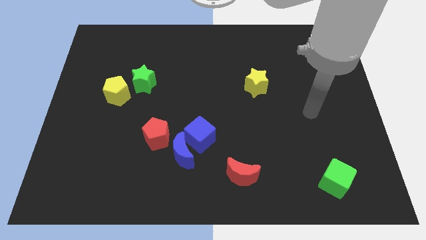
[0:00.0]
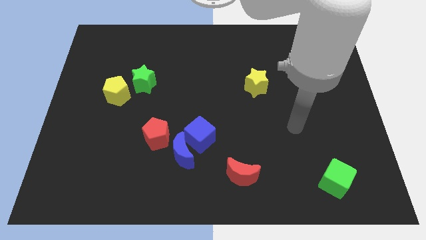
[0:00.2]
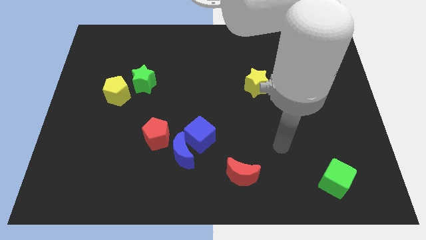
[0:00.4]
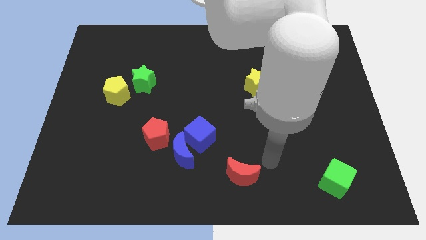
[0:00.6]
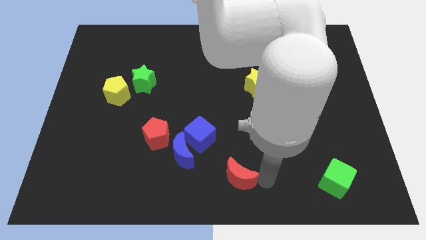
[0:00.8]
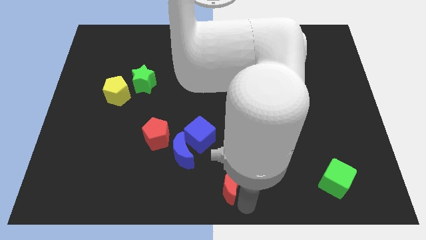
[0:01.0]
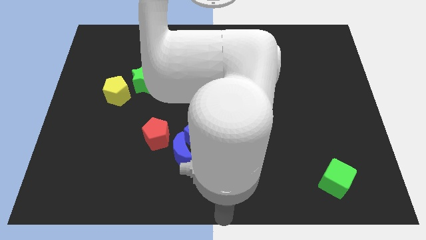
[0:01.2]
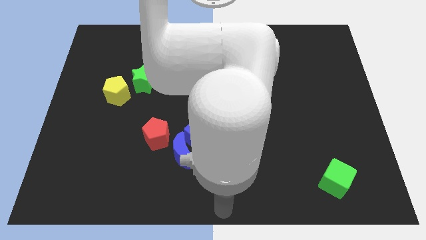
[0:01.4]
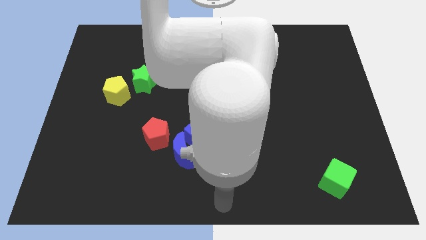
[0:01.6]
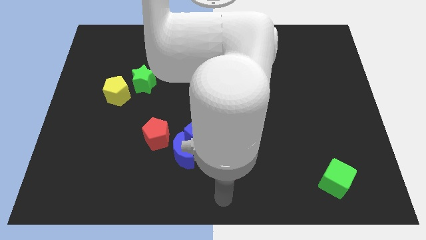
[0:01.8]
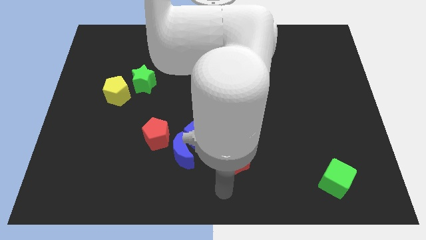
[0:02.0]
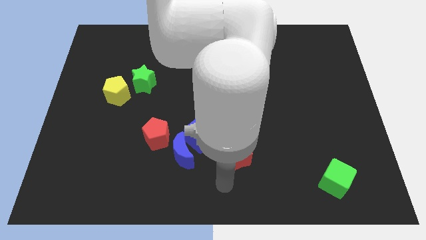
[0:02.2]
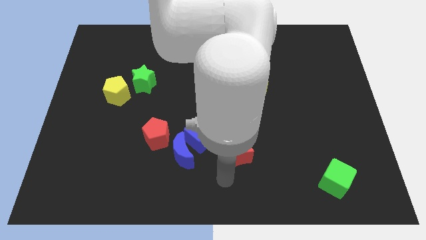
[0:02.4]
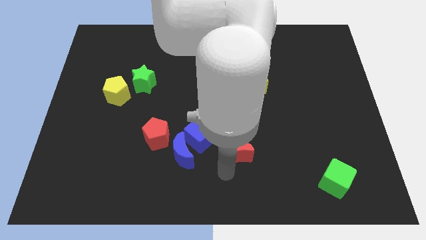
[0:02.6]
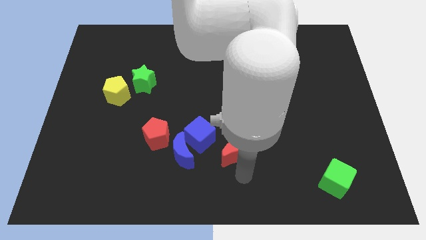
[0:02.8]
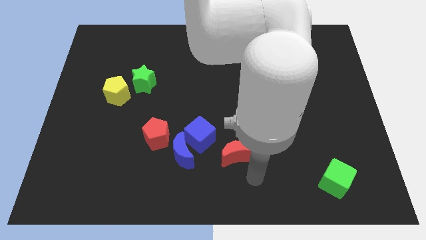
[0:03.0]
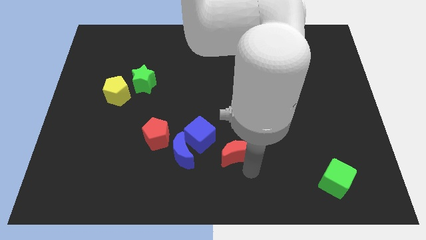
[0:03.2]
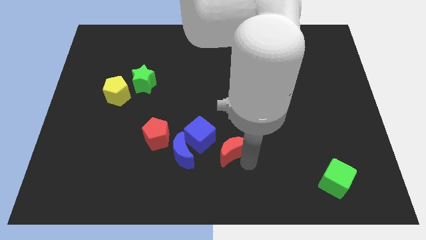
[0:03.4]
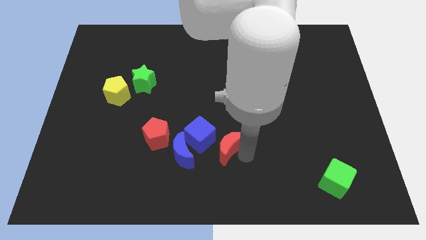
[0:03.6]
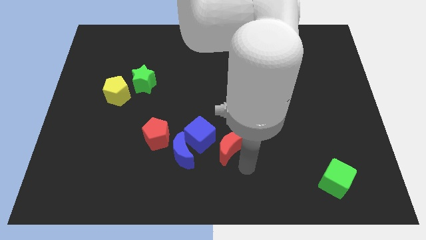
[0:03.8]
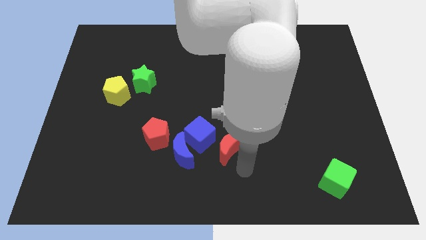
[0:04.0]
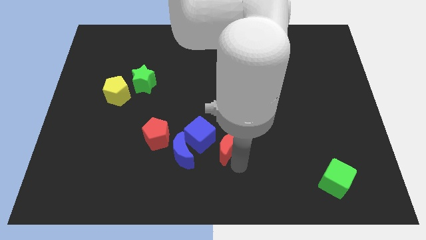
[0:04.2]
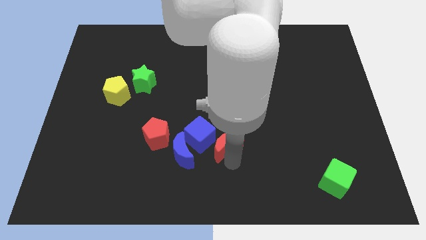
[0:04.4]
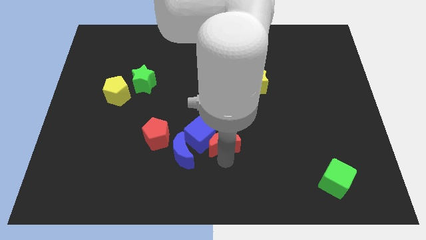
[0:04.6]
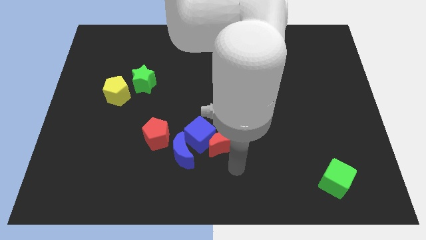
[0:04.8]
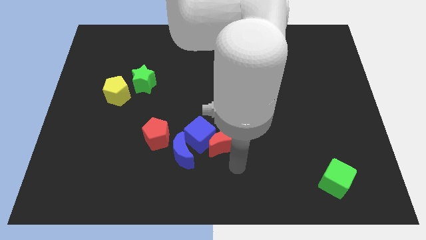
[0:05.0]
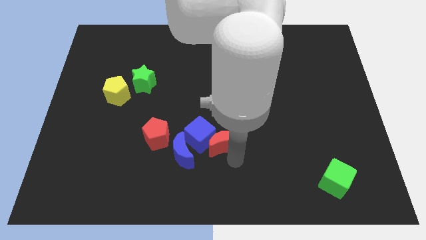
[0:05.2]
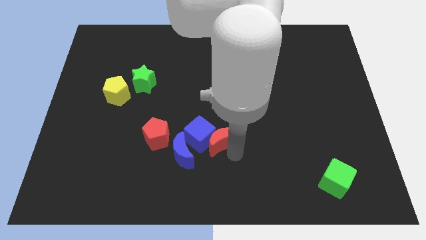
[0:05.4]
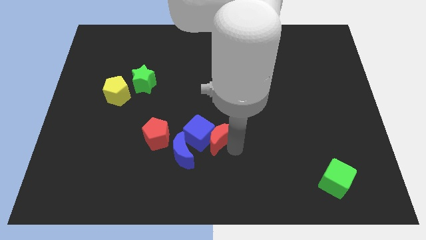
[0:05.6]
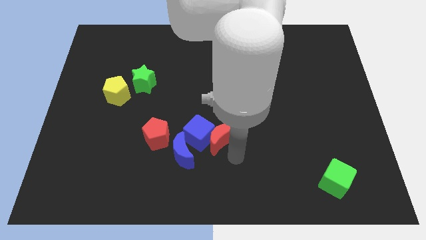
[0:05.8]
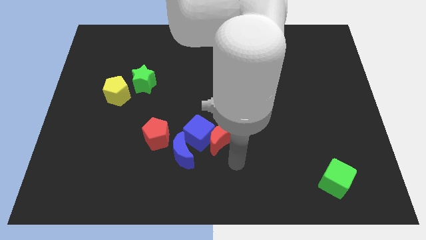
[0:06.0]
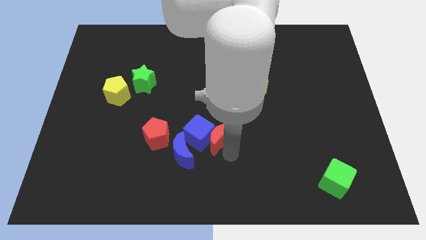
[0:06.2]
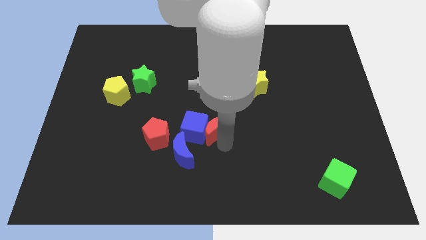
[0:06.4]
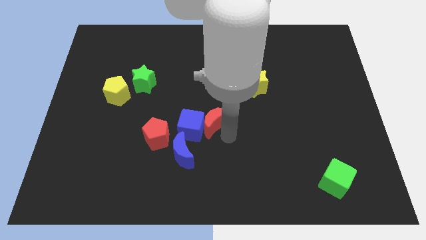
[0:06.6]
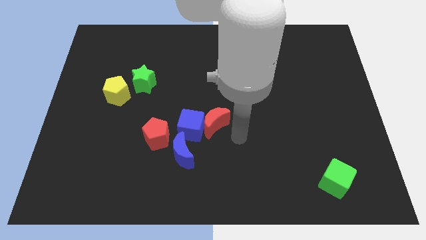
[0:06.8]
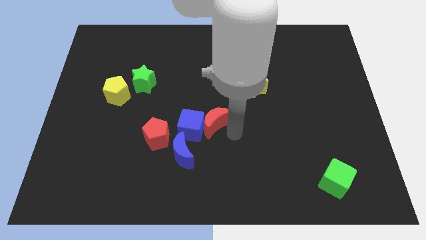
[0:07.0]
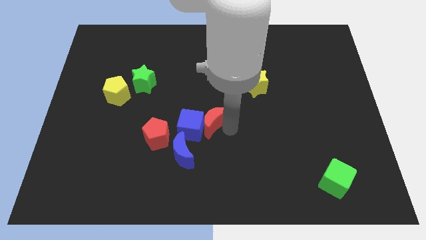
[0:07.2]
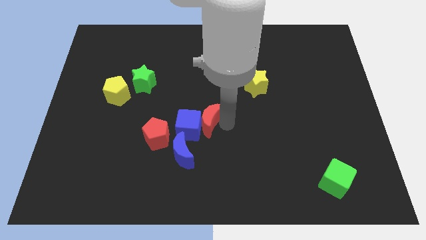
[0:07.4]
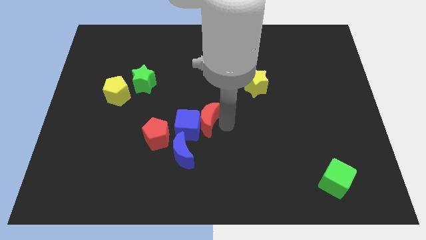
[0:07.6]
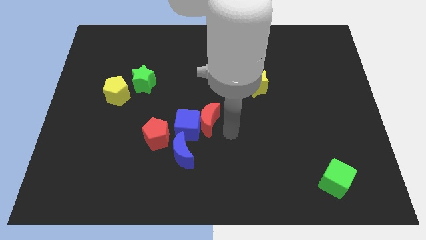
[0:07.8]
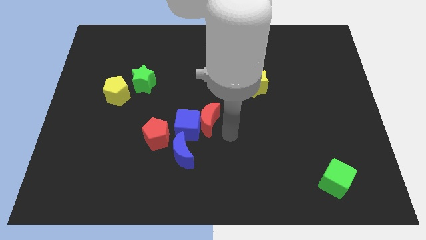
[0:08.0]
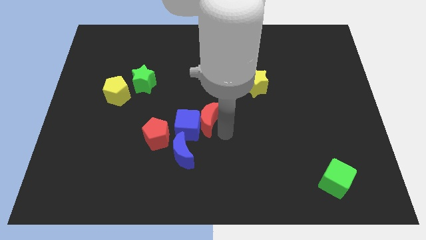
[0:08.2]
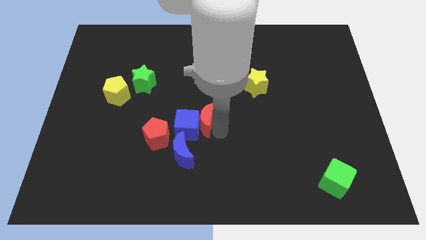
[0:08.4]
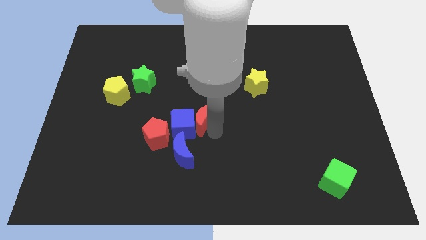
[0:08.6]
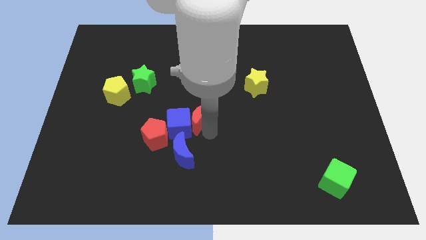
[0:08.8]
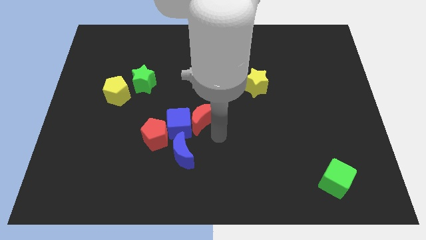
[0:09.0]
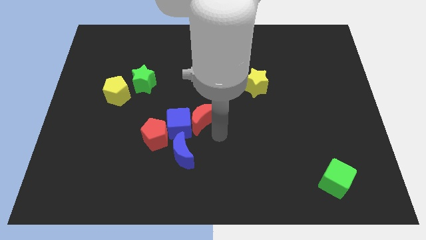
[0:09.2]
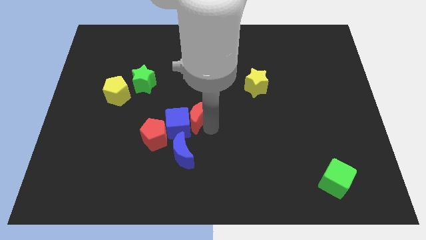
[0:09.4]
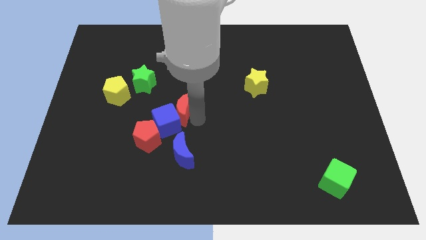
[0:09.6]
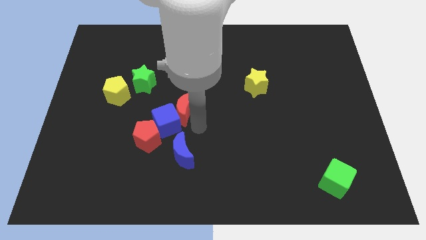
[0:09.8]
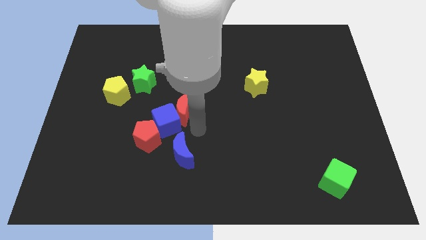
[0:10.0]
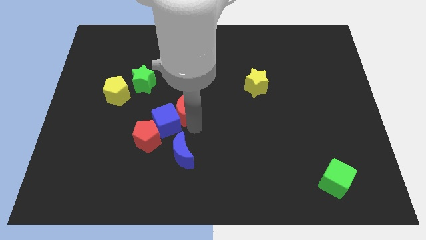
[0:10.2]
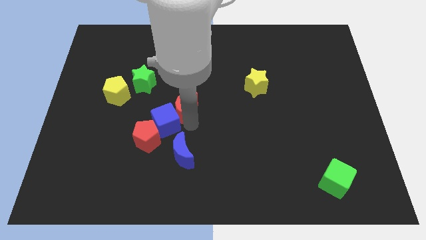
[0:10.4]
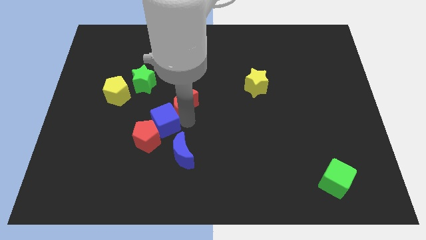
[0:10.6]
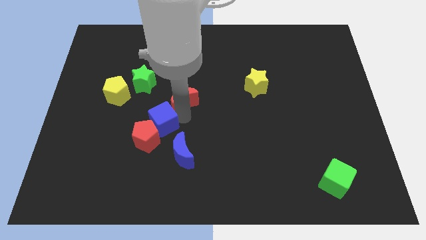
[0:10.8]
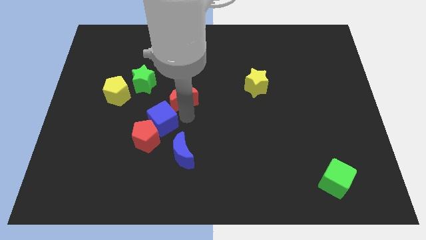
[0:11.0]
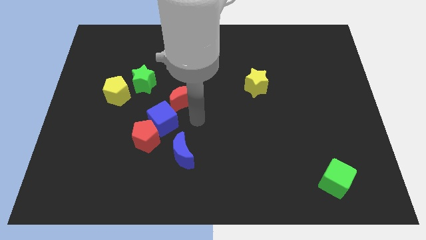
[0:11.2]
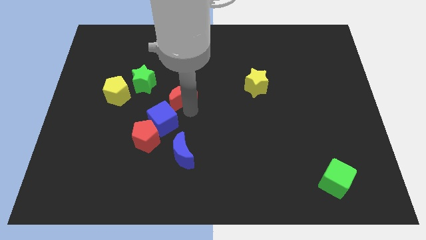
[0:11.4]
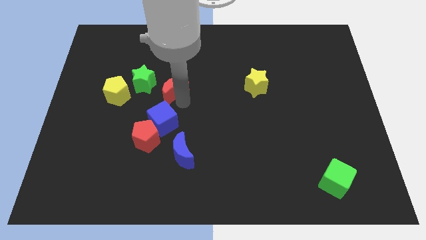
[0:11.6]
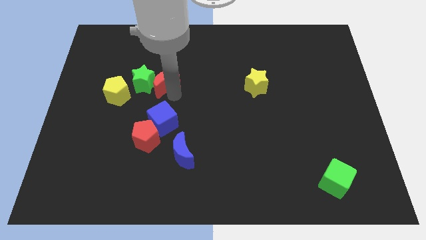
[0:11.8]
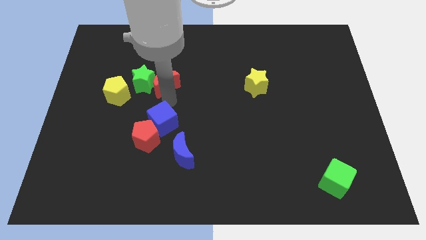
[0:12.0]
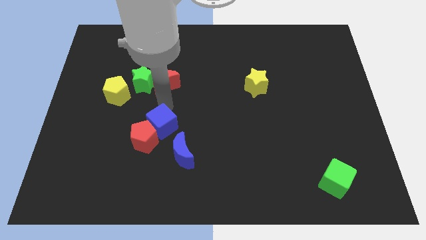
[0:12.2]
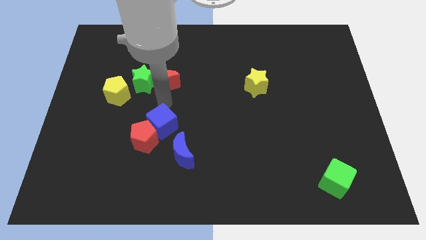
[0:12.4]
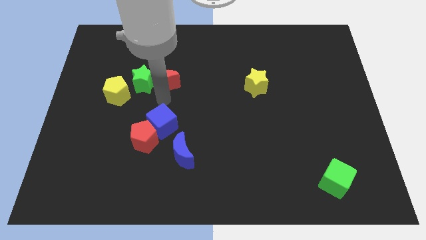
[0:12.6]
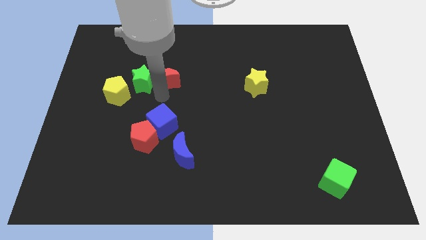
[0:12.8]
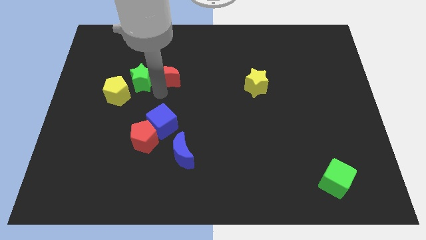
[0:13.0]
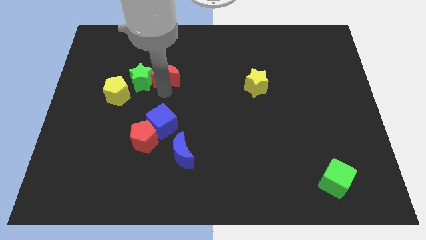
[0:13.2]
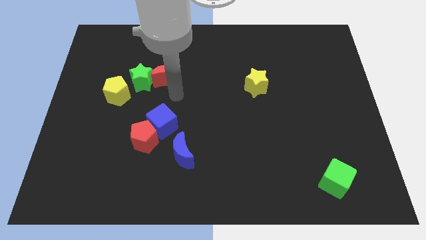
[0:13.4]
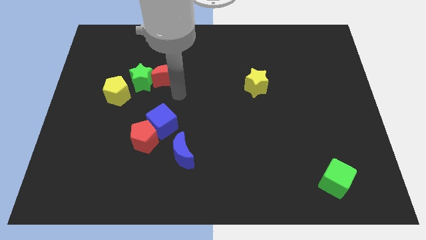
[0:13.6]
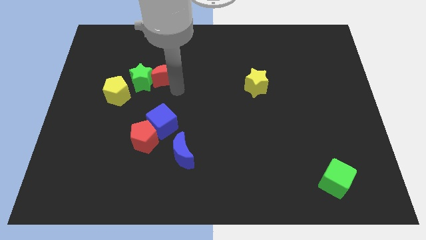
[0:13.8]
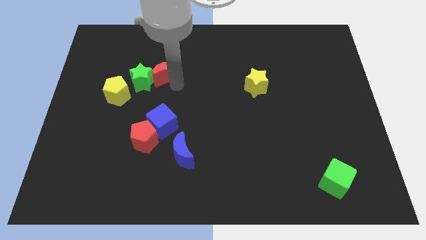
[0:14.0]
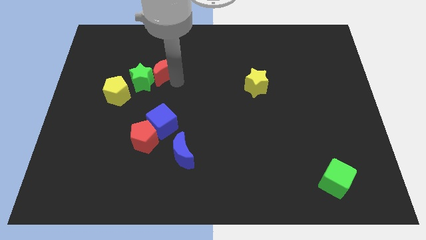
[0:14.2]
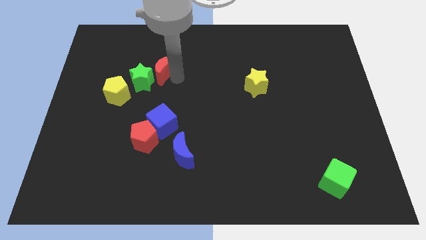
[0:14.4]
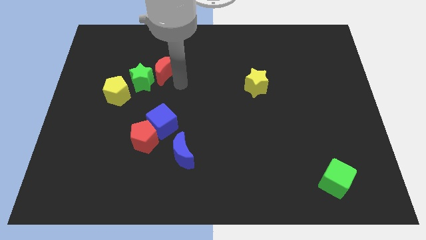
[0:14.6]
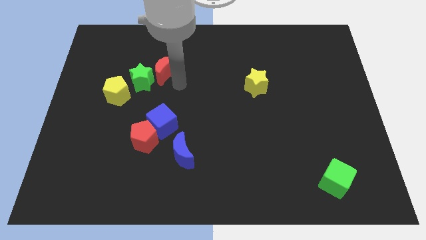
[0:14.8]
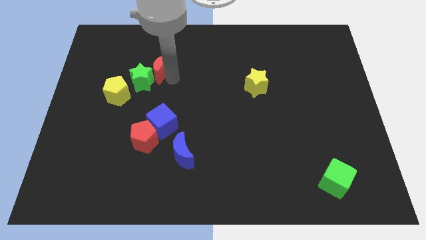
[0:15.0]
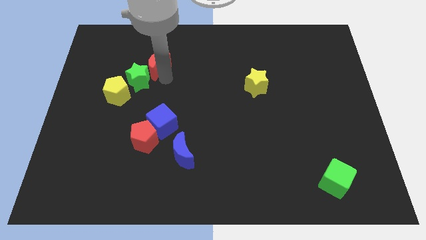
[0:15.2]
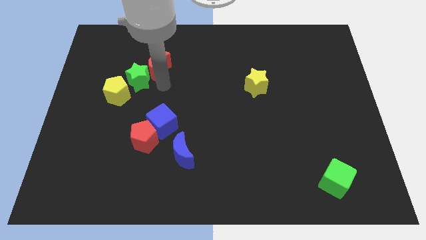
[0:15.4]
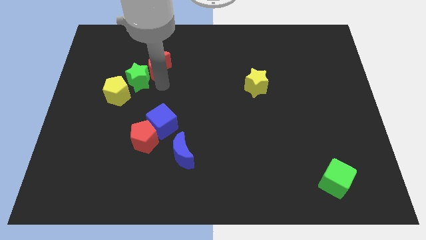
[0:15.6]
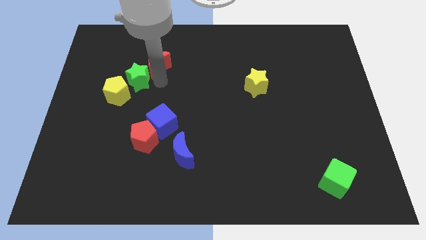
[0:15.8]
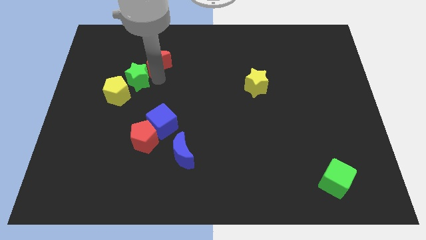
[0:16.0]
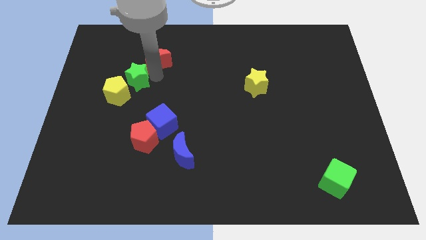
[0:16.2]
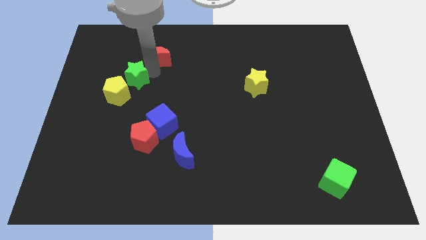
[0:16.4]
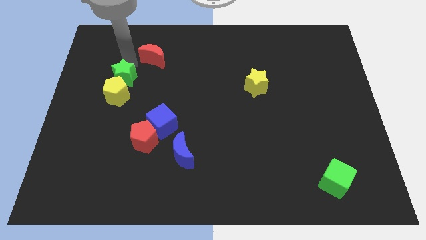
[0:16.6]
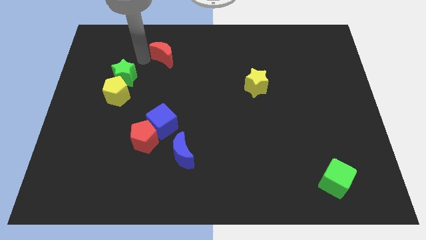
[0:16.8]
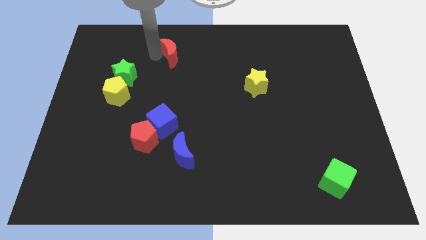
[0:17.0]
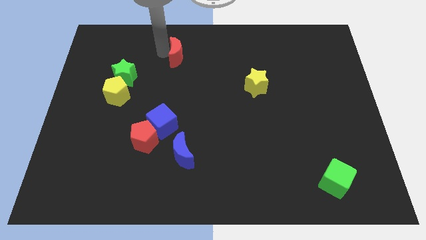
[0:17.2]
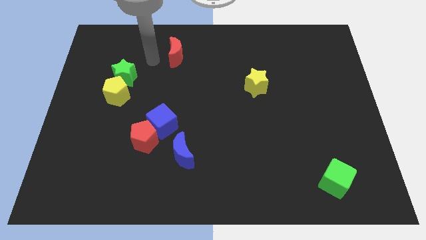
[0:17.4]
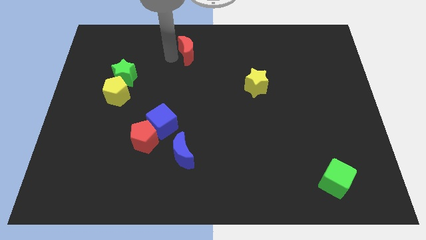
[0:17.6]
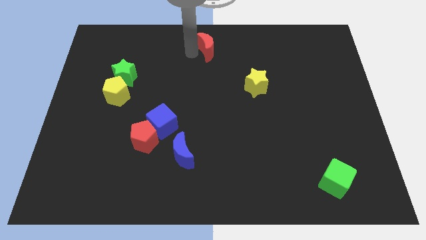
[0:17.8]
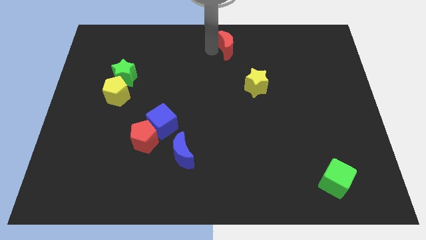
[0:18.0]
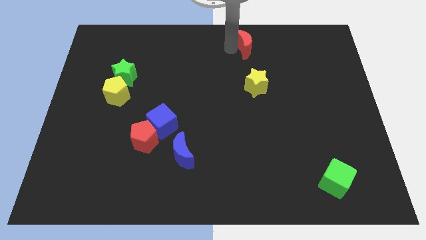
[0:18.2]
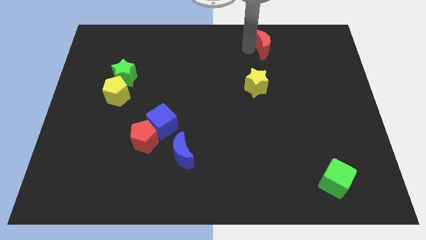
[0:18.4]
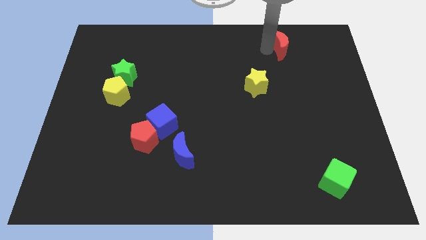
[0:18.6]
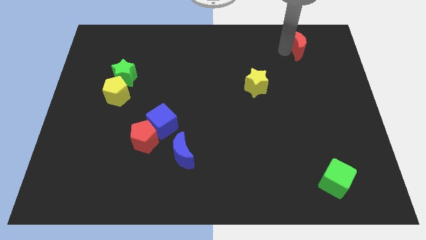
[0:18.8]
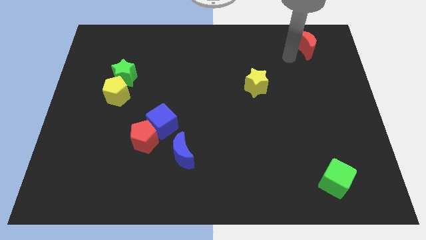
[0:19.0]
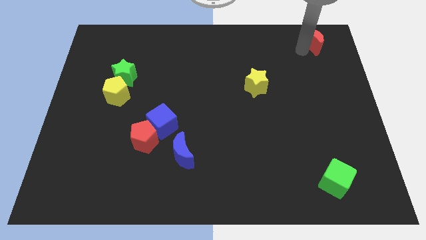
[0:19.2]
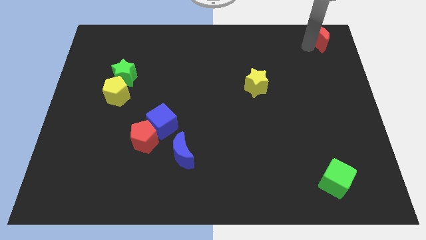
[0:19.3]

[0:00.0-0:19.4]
put the red moon to the top right
